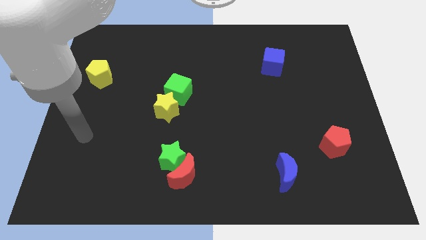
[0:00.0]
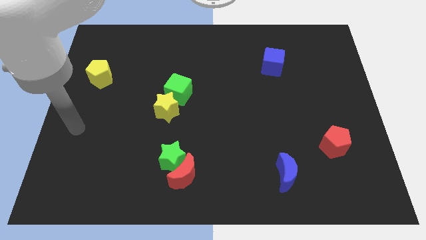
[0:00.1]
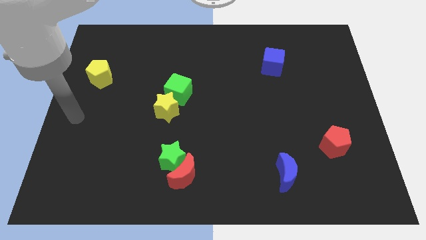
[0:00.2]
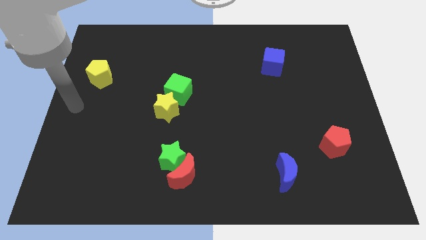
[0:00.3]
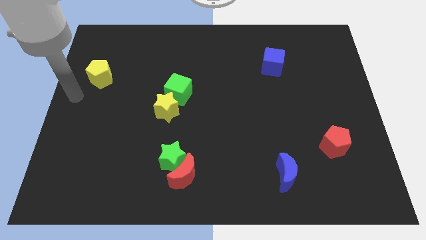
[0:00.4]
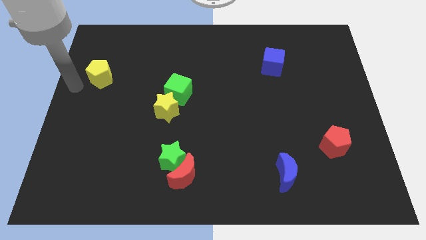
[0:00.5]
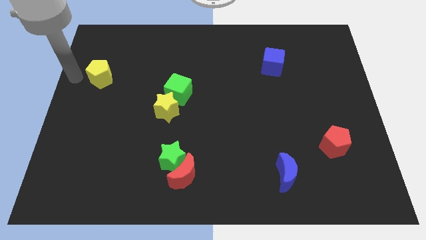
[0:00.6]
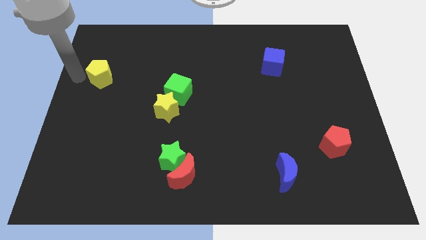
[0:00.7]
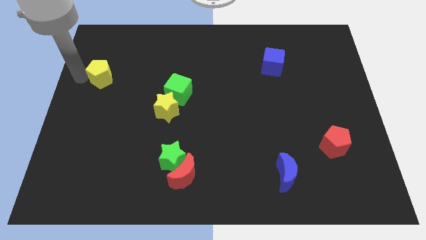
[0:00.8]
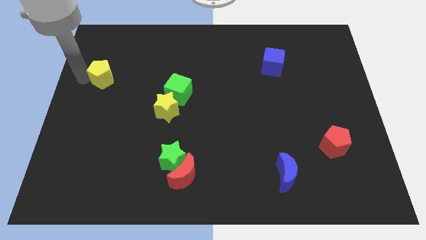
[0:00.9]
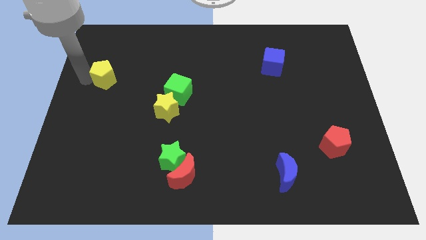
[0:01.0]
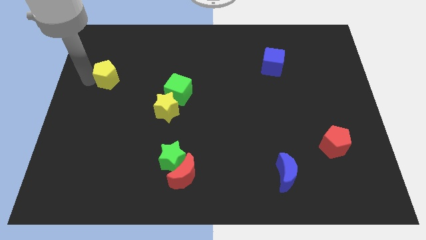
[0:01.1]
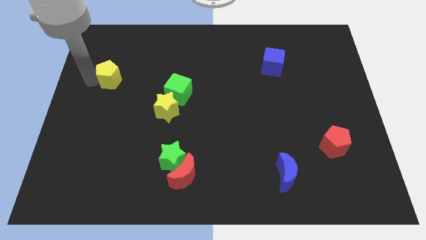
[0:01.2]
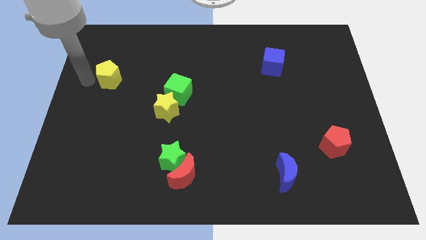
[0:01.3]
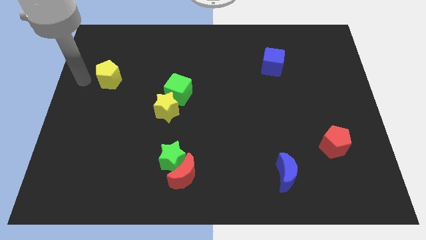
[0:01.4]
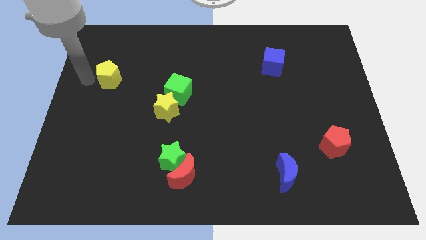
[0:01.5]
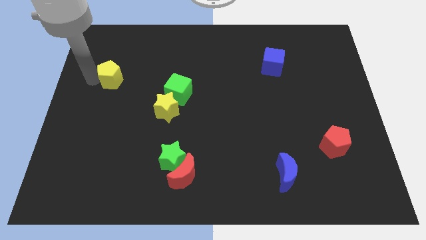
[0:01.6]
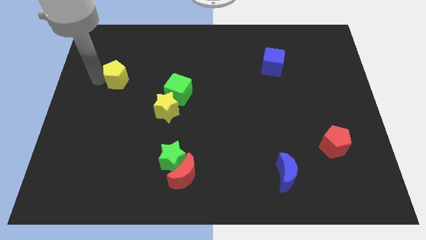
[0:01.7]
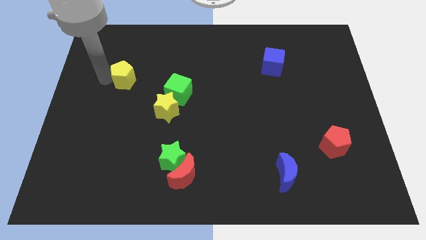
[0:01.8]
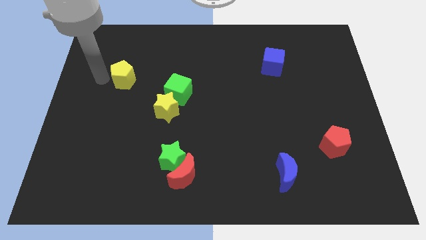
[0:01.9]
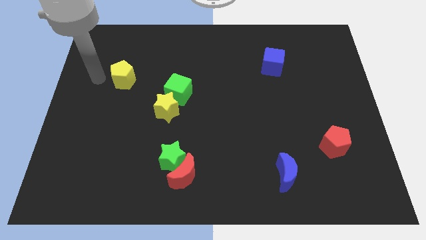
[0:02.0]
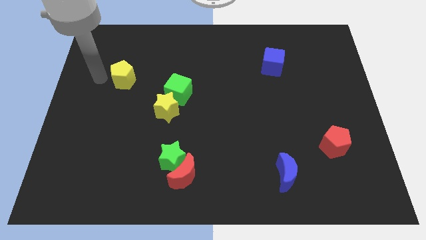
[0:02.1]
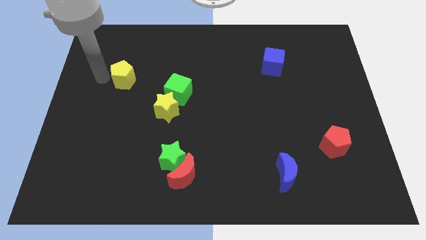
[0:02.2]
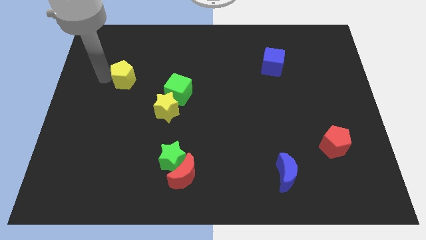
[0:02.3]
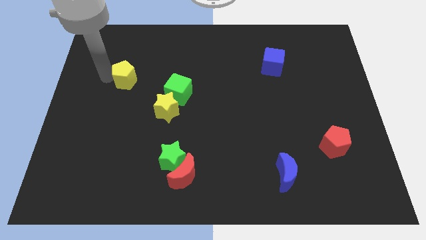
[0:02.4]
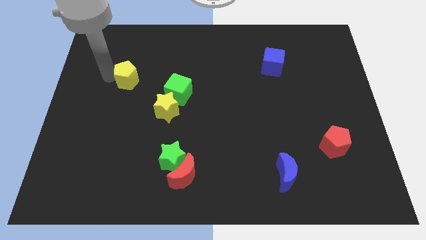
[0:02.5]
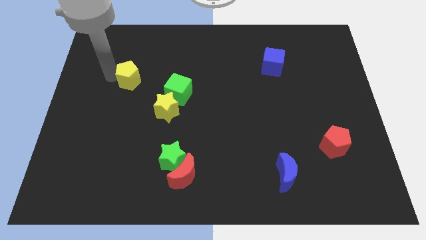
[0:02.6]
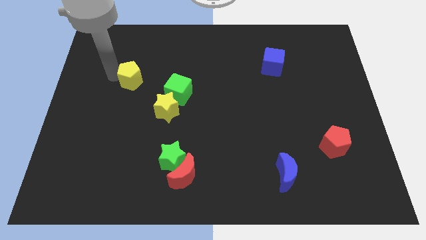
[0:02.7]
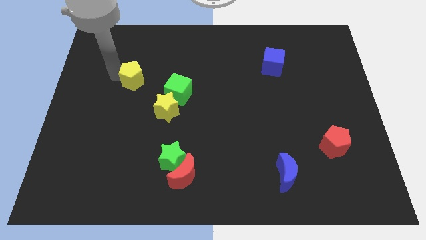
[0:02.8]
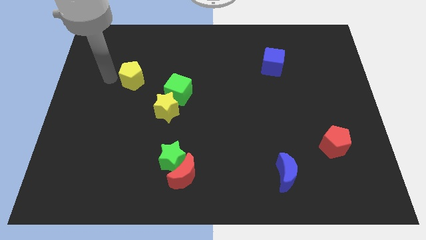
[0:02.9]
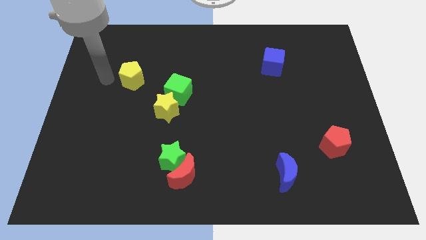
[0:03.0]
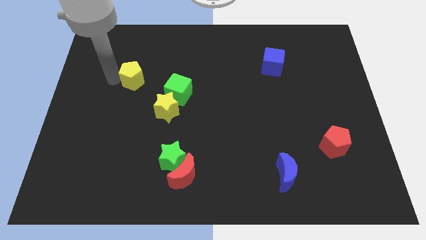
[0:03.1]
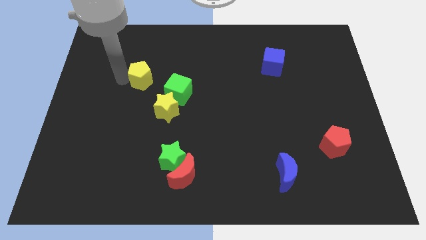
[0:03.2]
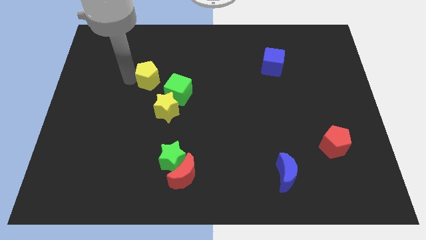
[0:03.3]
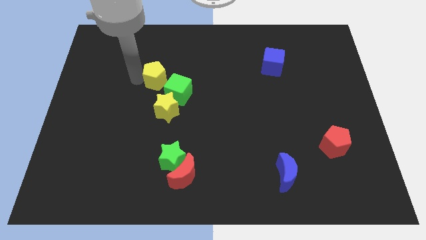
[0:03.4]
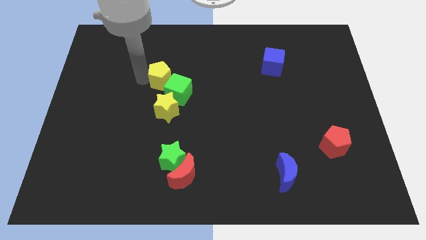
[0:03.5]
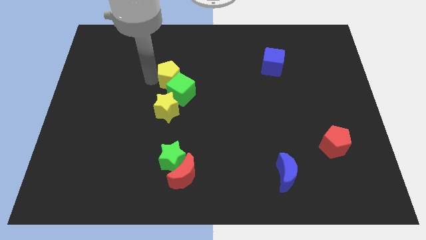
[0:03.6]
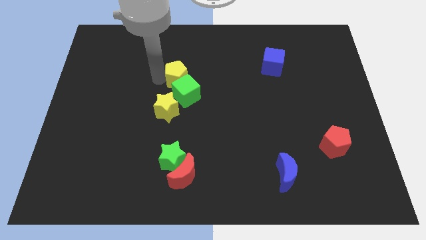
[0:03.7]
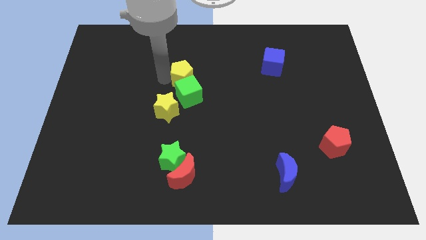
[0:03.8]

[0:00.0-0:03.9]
move the yellow pentagon right

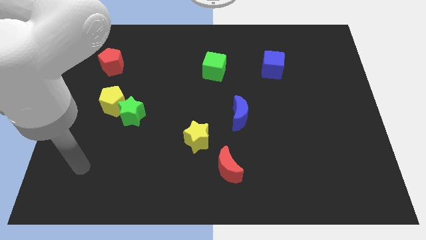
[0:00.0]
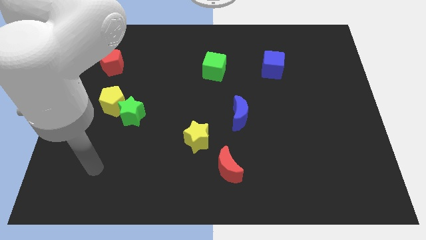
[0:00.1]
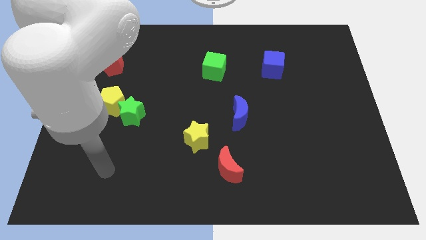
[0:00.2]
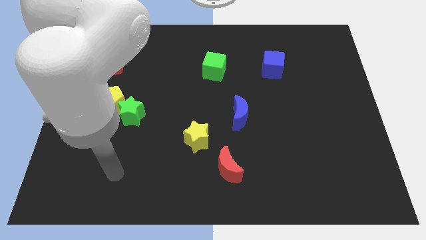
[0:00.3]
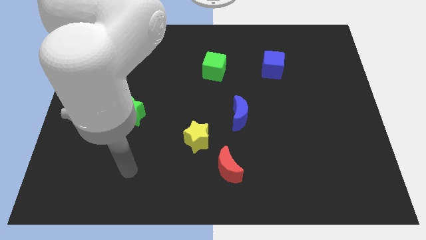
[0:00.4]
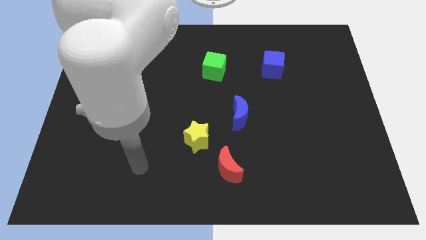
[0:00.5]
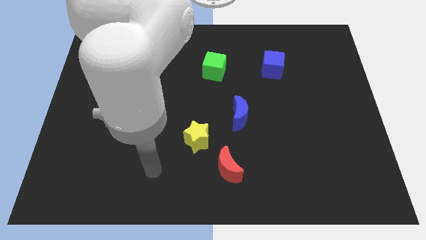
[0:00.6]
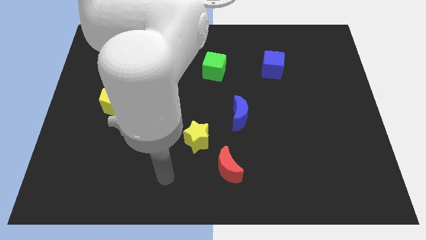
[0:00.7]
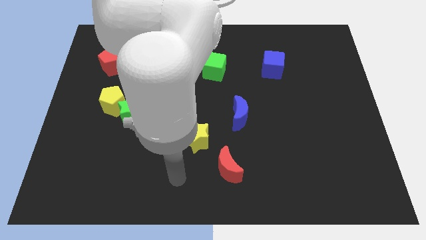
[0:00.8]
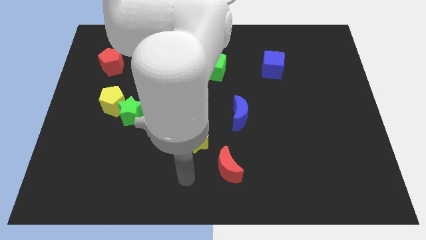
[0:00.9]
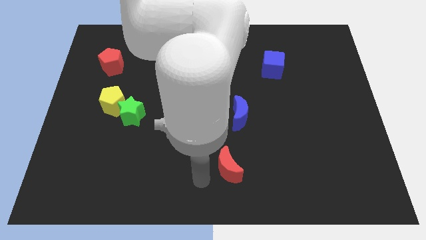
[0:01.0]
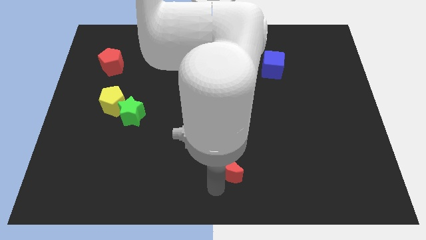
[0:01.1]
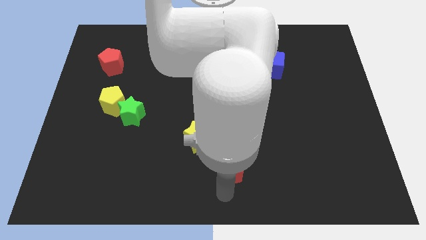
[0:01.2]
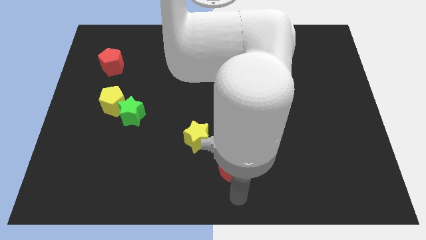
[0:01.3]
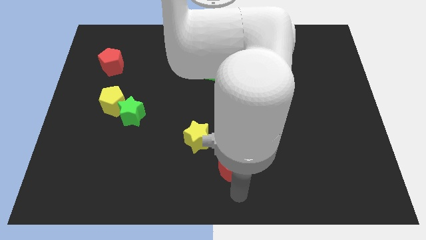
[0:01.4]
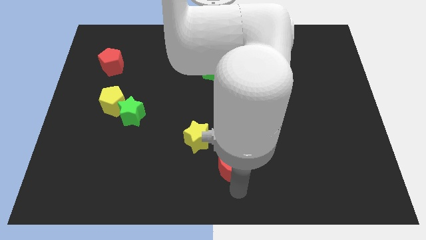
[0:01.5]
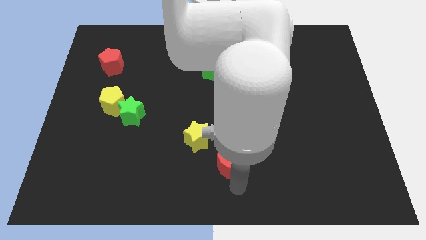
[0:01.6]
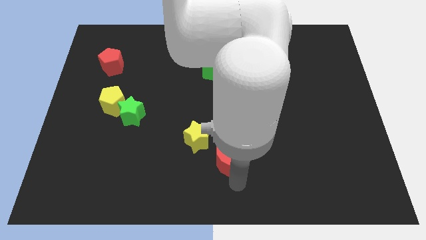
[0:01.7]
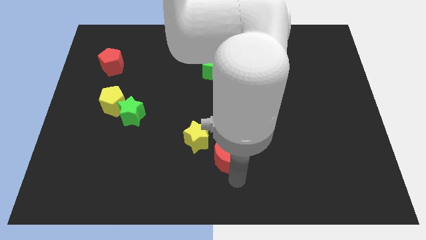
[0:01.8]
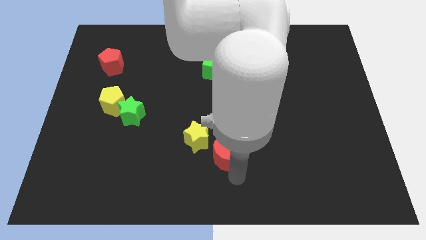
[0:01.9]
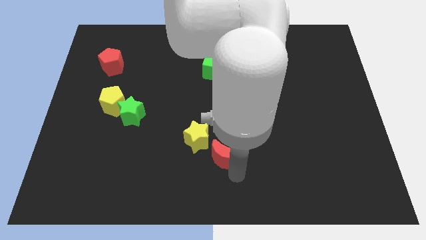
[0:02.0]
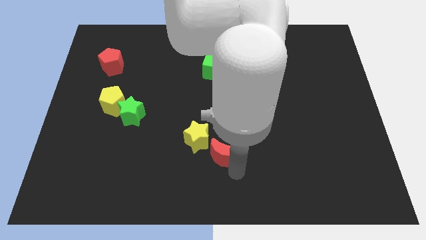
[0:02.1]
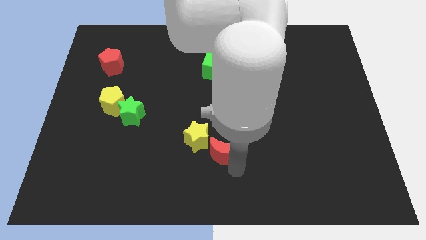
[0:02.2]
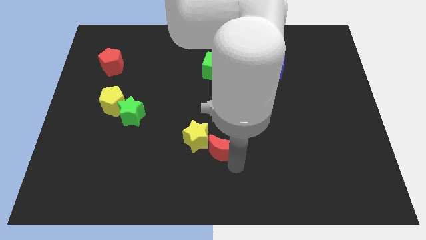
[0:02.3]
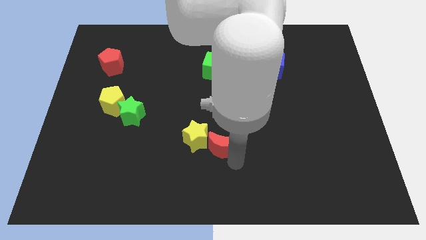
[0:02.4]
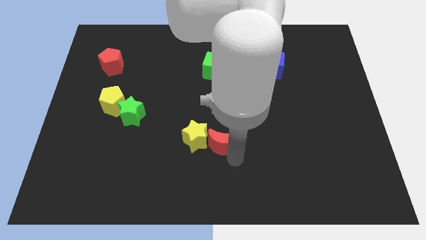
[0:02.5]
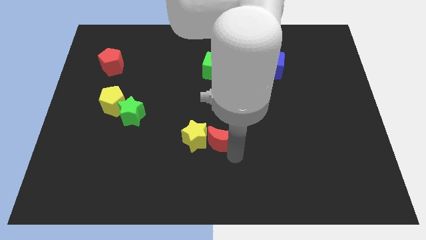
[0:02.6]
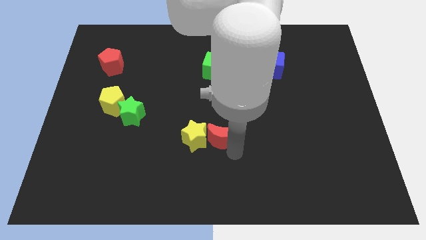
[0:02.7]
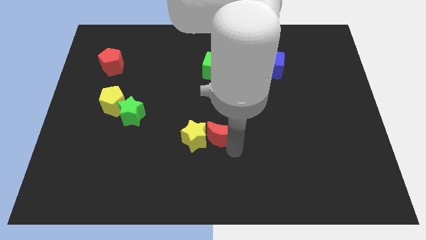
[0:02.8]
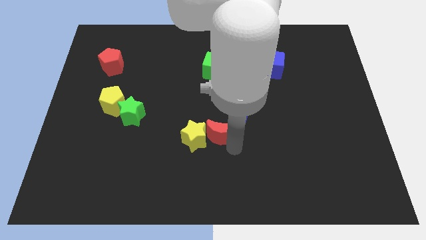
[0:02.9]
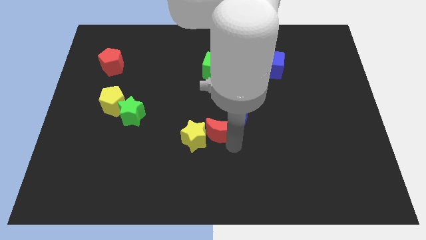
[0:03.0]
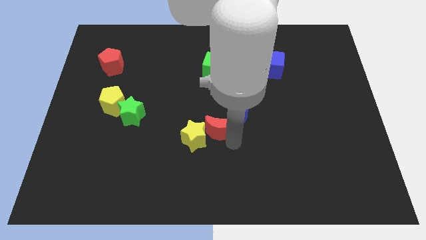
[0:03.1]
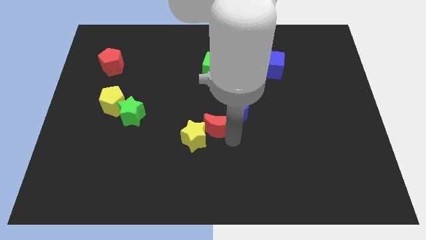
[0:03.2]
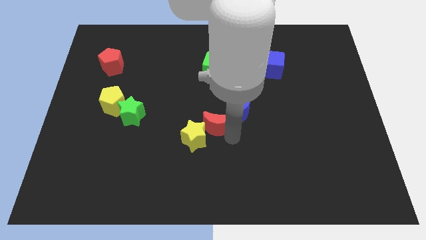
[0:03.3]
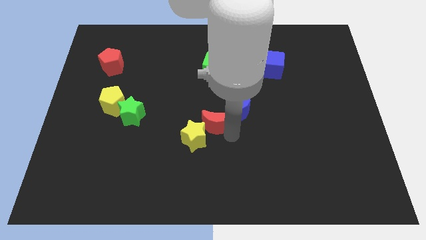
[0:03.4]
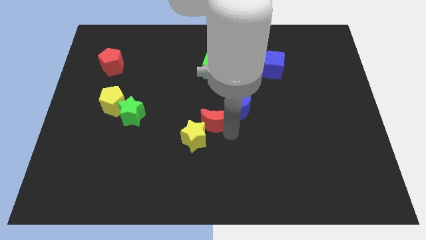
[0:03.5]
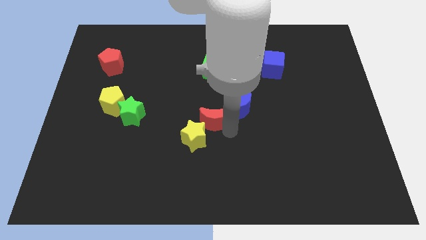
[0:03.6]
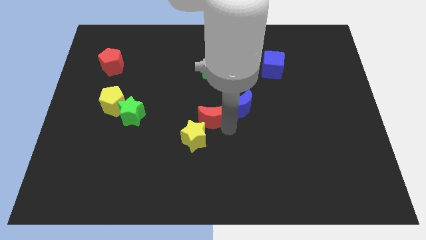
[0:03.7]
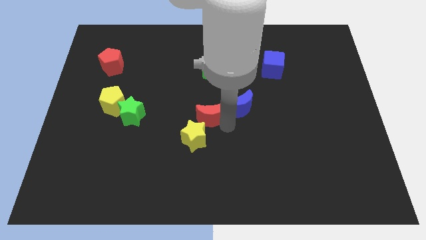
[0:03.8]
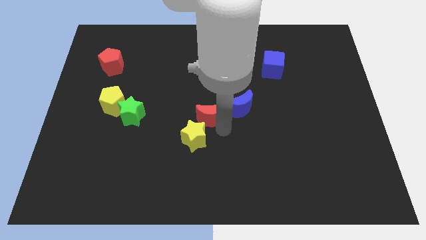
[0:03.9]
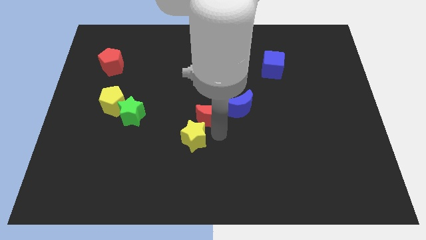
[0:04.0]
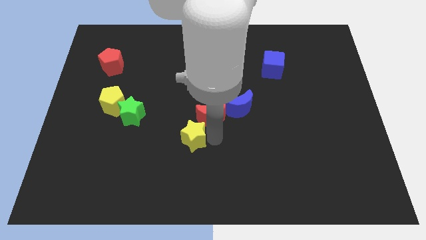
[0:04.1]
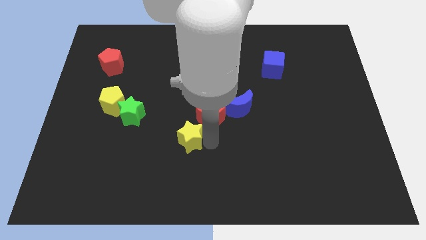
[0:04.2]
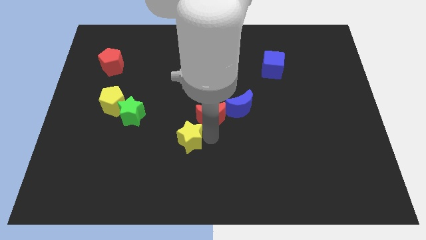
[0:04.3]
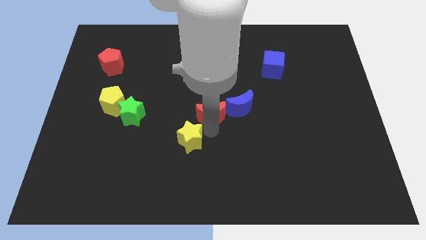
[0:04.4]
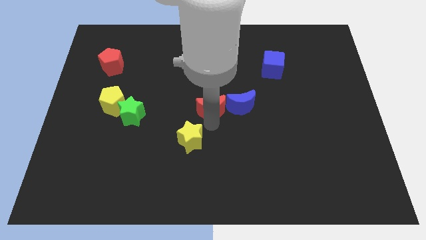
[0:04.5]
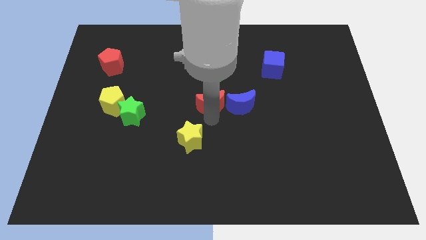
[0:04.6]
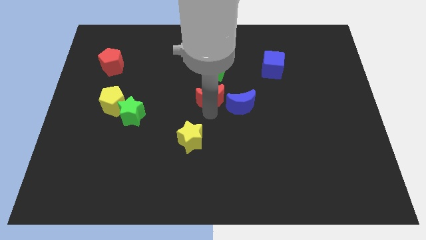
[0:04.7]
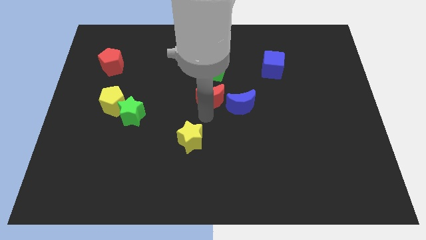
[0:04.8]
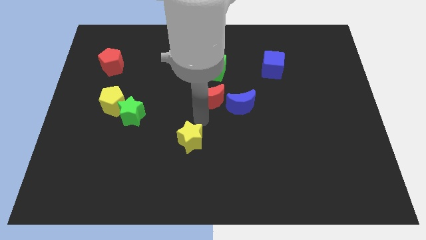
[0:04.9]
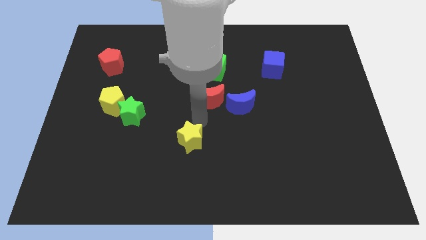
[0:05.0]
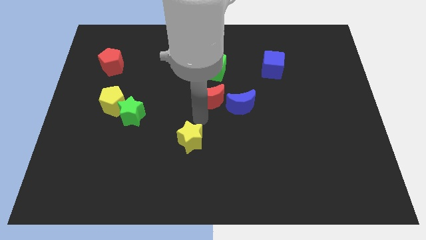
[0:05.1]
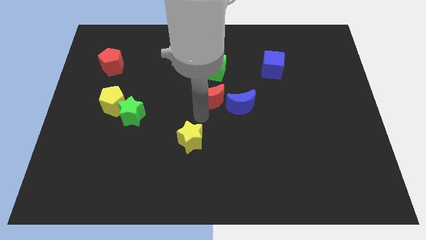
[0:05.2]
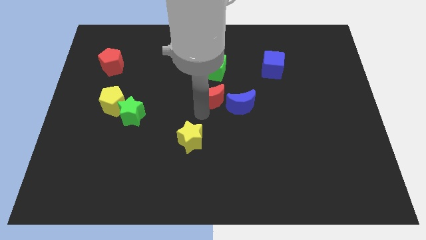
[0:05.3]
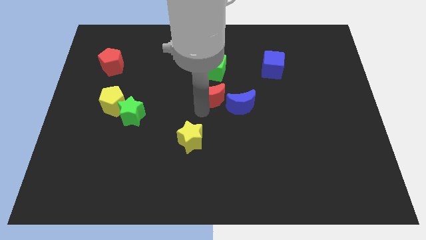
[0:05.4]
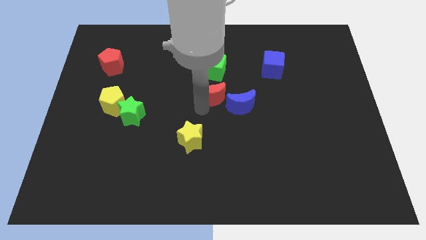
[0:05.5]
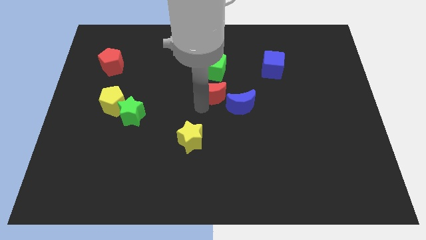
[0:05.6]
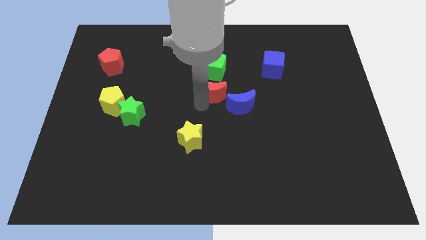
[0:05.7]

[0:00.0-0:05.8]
slide the red moon up
